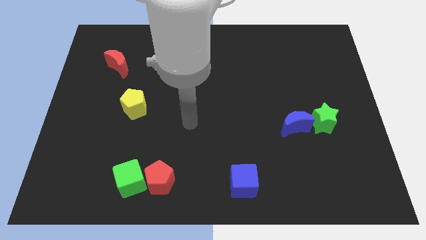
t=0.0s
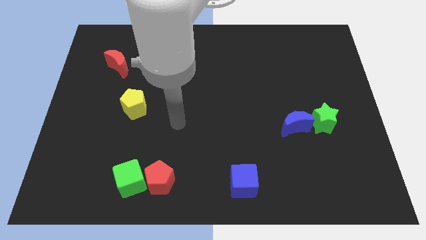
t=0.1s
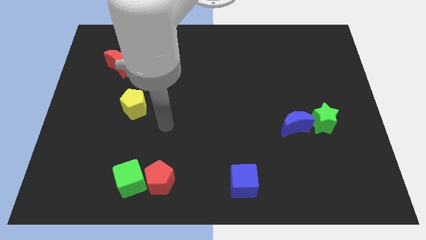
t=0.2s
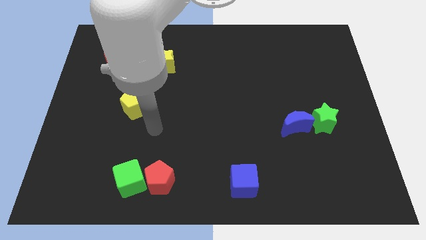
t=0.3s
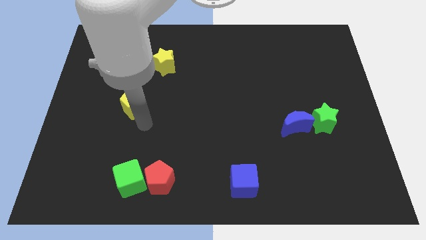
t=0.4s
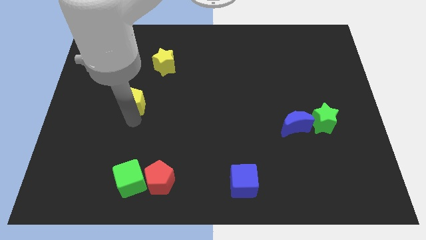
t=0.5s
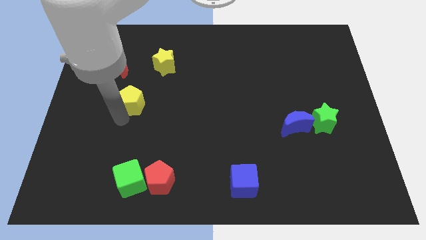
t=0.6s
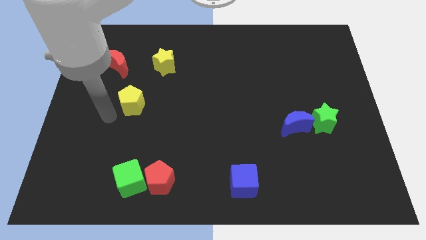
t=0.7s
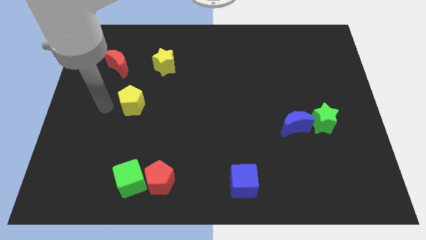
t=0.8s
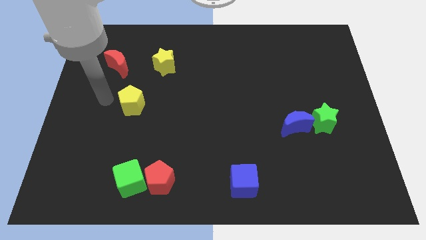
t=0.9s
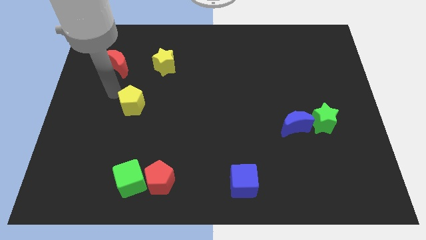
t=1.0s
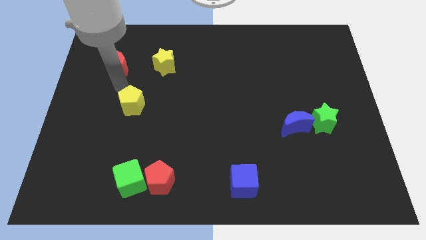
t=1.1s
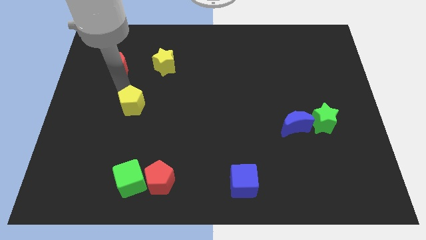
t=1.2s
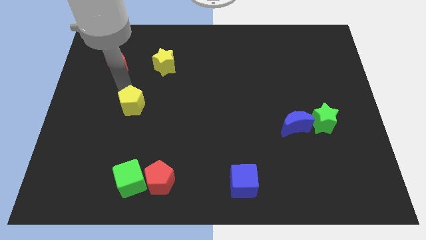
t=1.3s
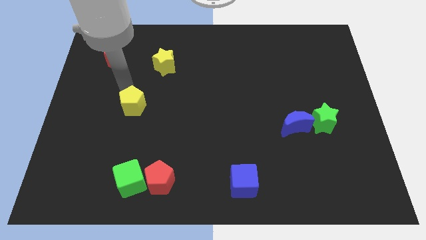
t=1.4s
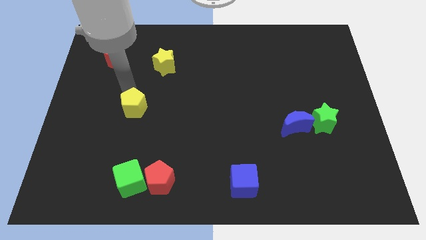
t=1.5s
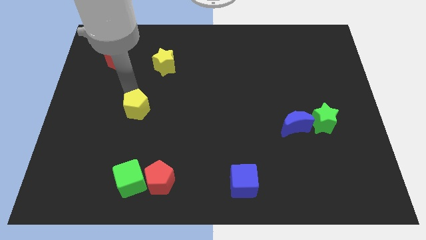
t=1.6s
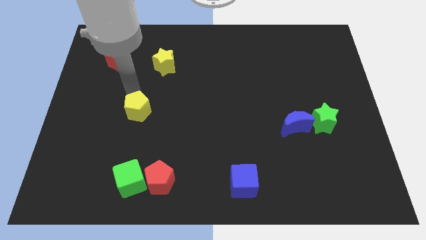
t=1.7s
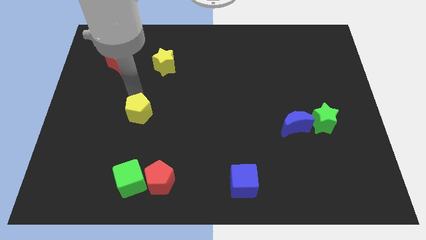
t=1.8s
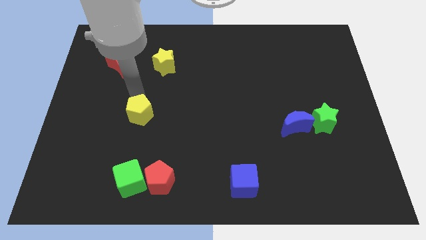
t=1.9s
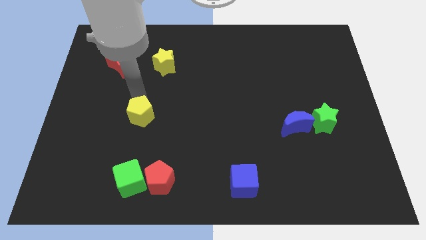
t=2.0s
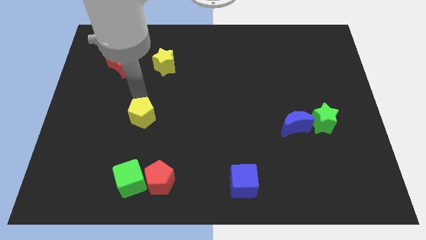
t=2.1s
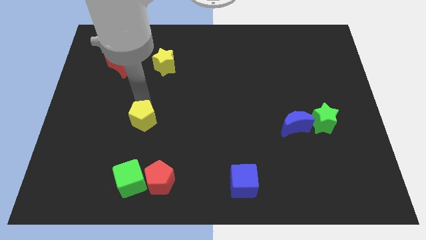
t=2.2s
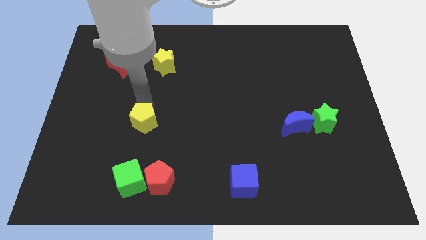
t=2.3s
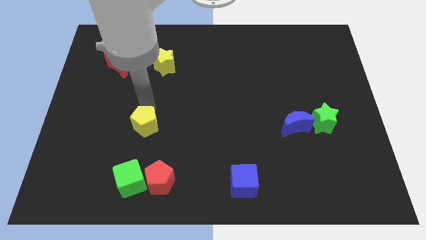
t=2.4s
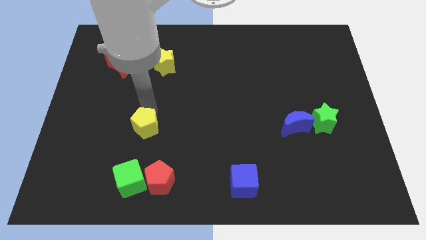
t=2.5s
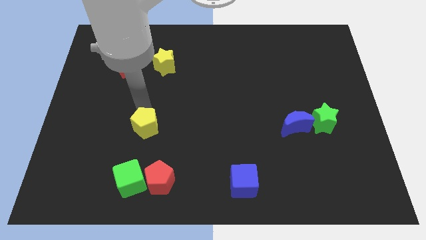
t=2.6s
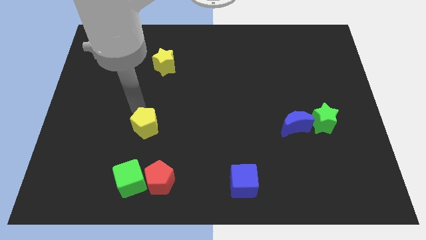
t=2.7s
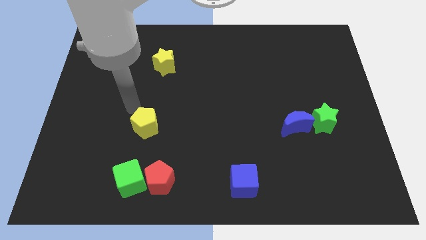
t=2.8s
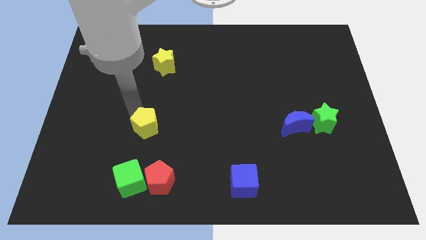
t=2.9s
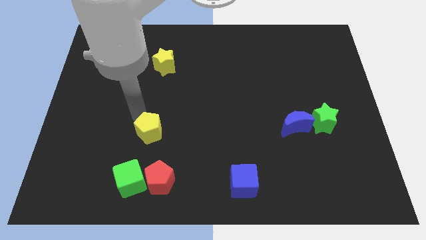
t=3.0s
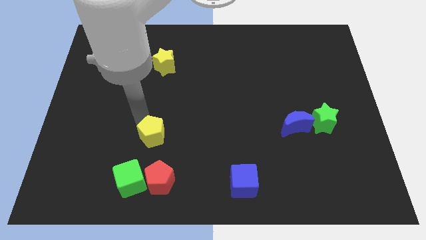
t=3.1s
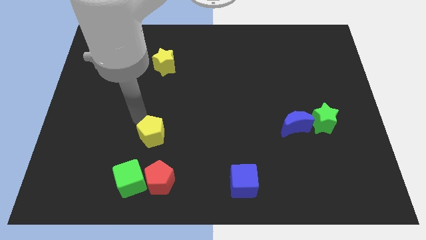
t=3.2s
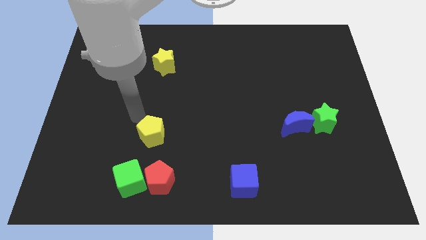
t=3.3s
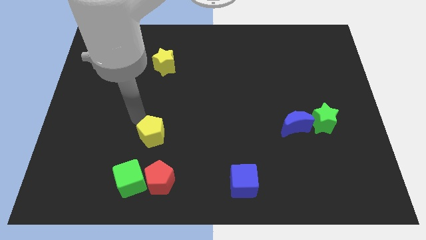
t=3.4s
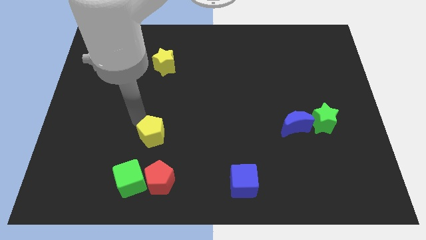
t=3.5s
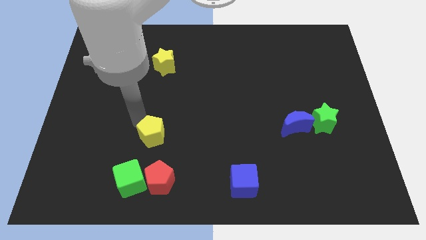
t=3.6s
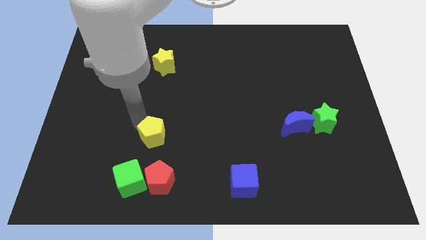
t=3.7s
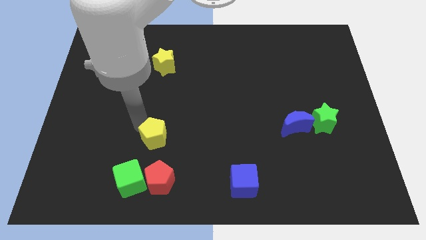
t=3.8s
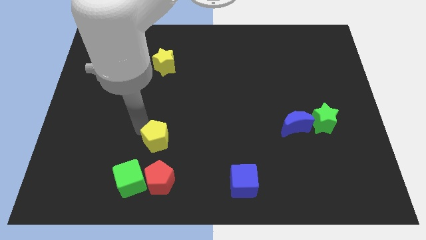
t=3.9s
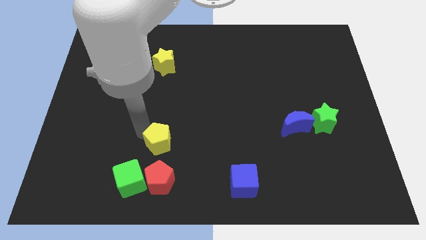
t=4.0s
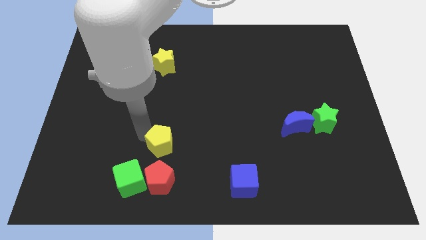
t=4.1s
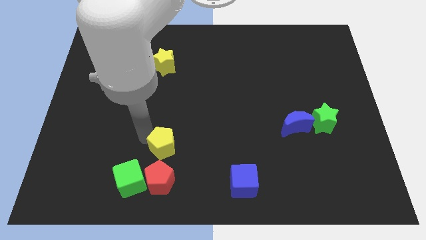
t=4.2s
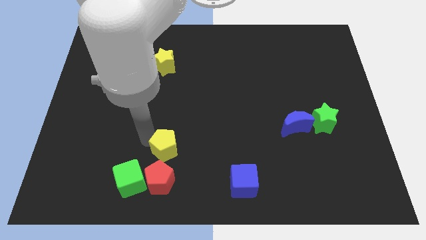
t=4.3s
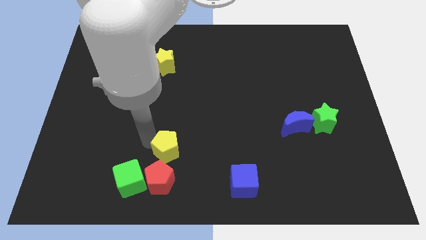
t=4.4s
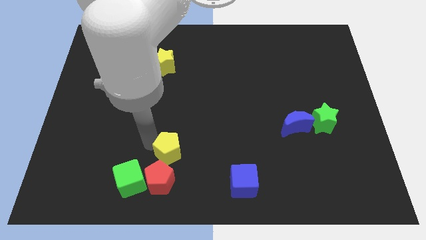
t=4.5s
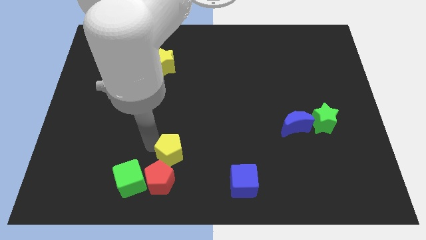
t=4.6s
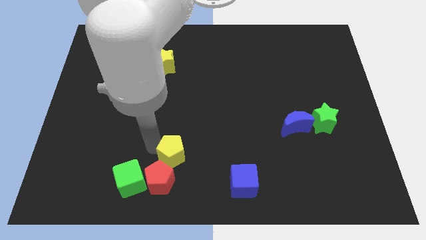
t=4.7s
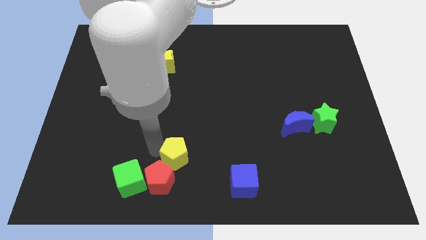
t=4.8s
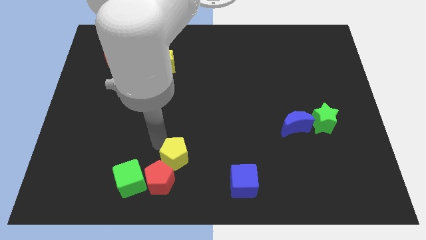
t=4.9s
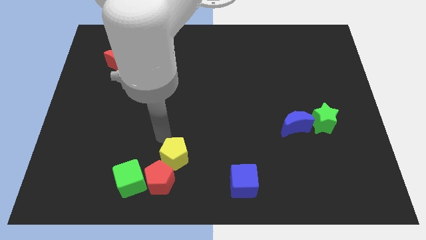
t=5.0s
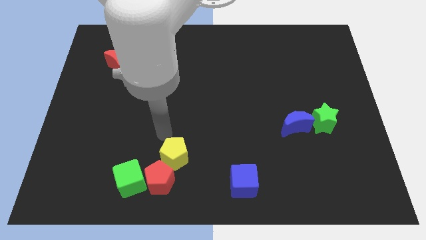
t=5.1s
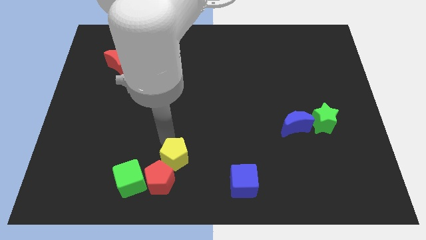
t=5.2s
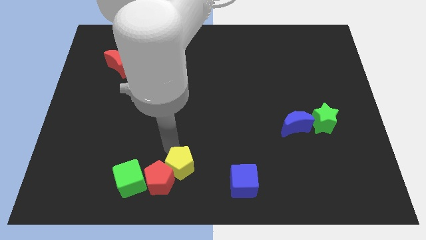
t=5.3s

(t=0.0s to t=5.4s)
slide the yellow pentagon to the bottom side

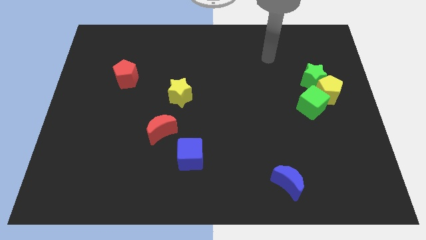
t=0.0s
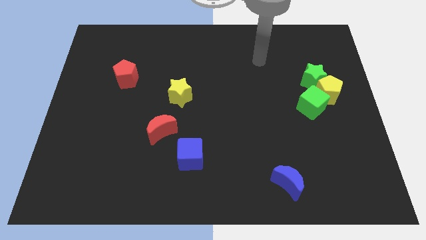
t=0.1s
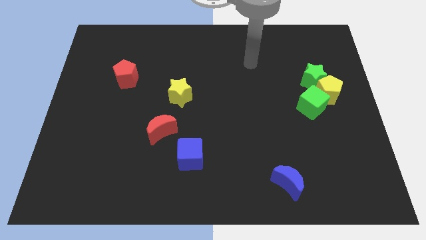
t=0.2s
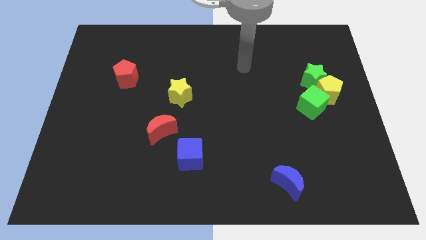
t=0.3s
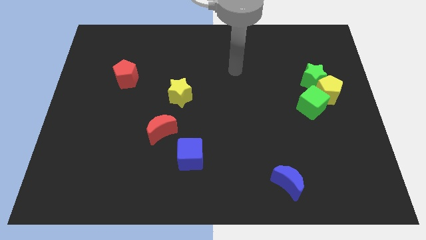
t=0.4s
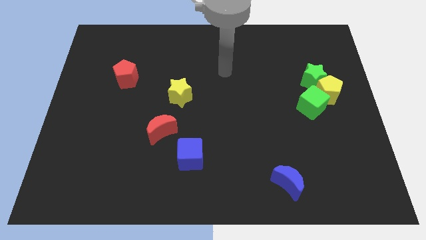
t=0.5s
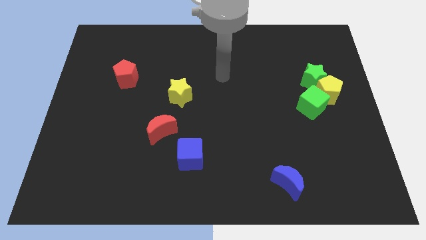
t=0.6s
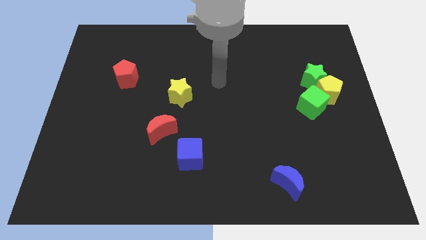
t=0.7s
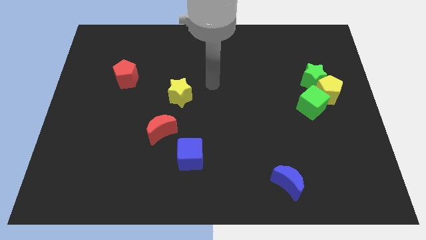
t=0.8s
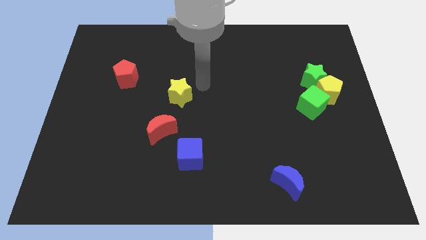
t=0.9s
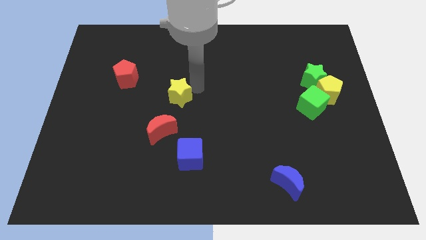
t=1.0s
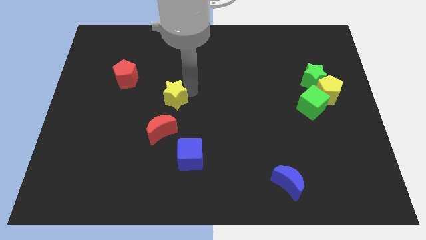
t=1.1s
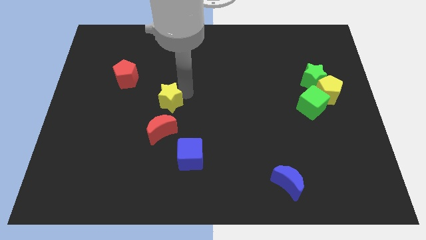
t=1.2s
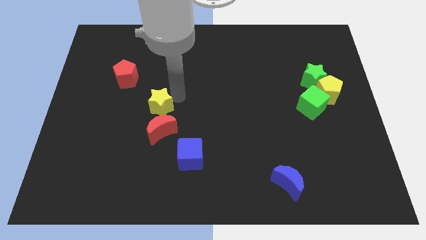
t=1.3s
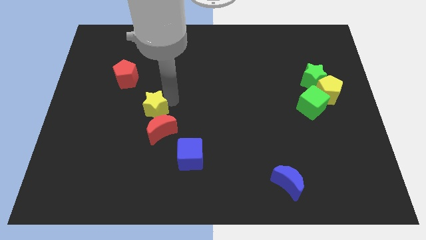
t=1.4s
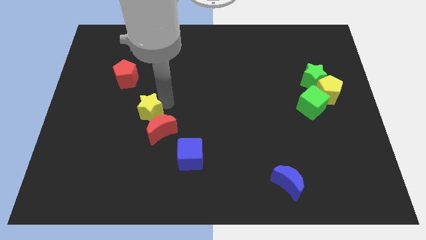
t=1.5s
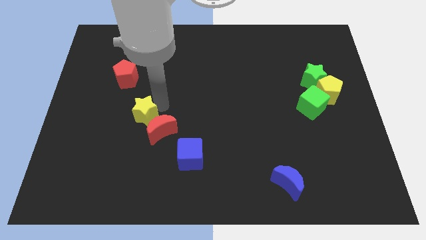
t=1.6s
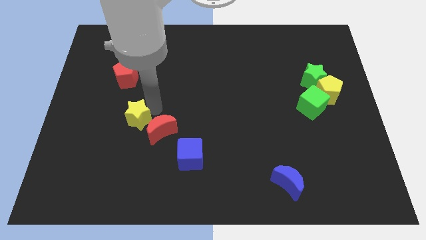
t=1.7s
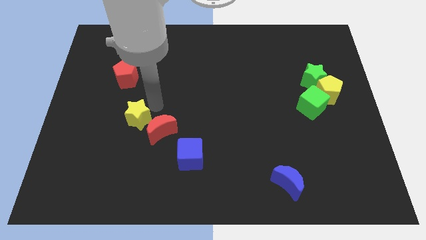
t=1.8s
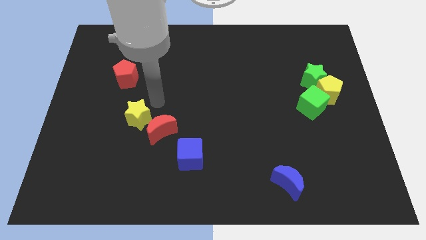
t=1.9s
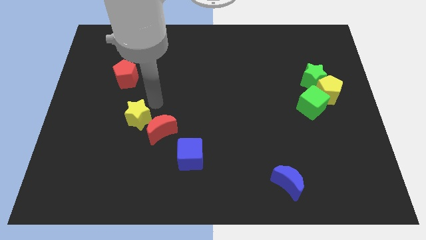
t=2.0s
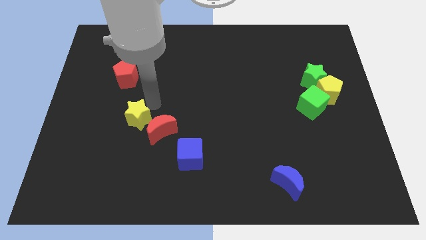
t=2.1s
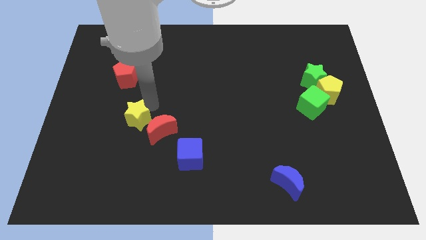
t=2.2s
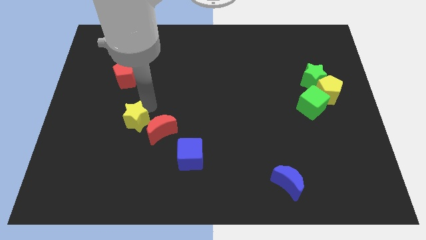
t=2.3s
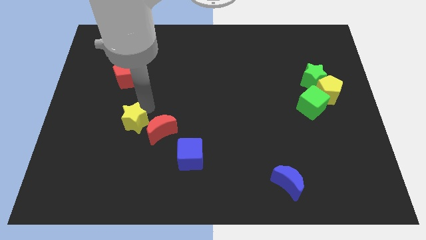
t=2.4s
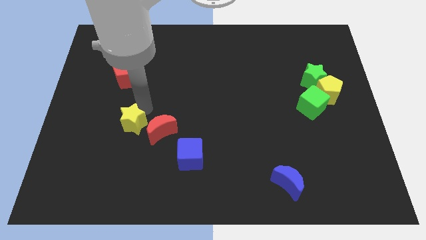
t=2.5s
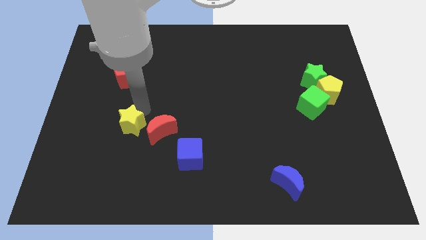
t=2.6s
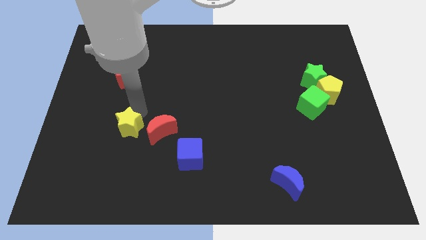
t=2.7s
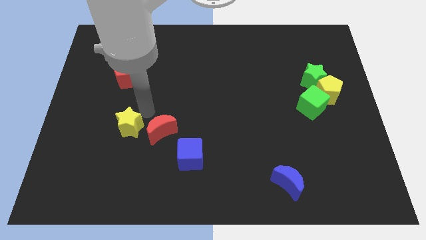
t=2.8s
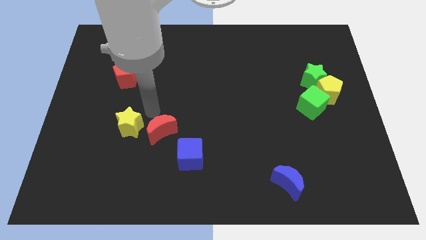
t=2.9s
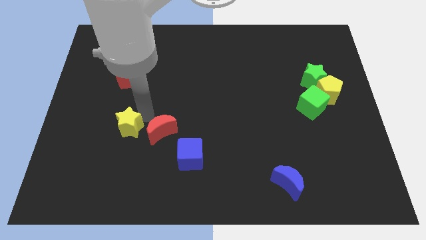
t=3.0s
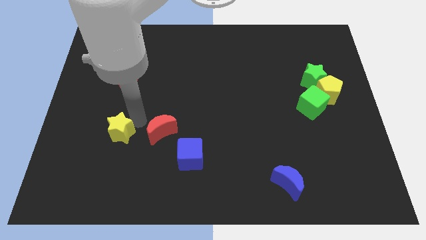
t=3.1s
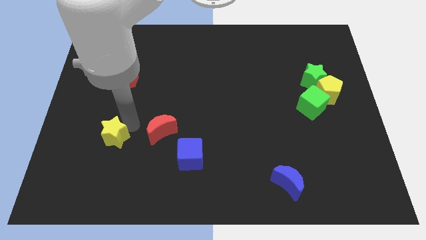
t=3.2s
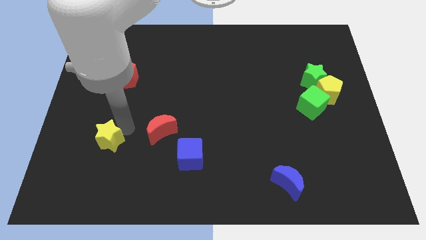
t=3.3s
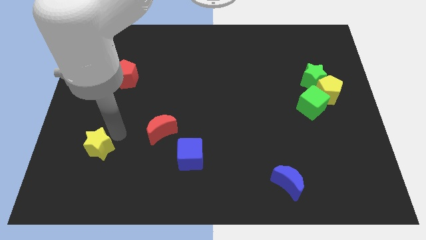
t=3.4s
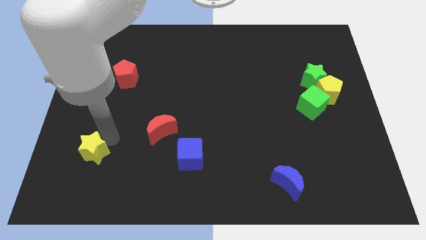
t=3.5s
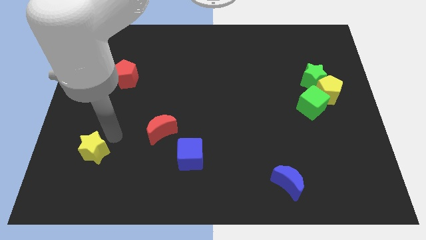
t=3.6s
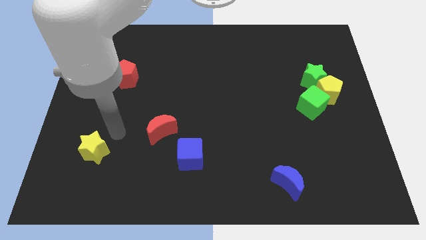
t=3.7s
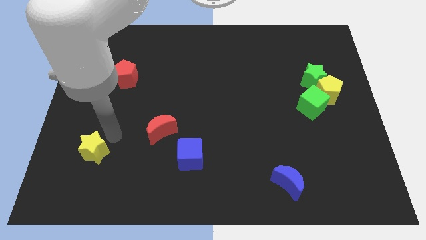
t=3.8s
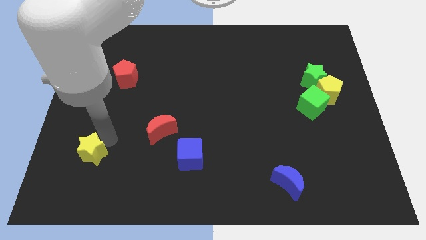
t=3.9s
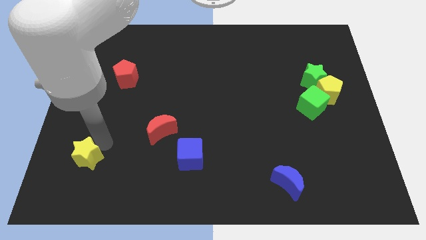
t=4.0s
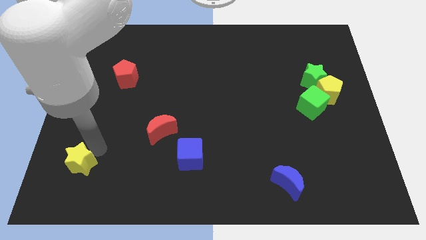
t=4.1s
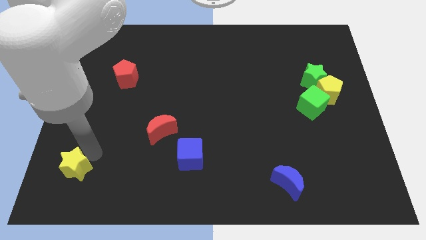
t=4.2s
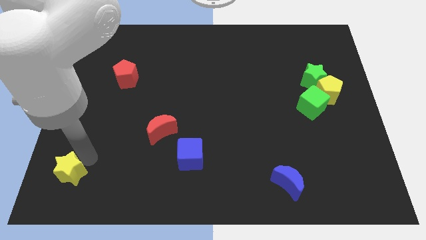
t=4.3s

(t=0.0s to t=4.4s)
move the yellow star to the lower left corner
